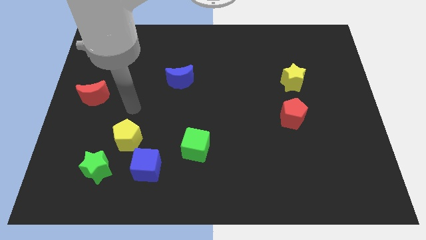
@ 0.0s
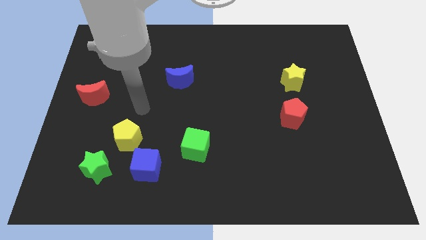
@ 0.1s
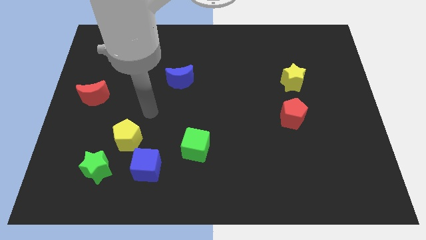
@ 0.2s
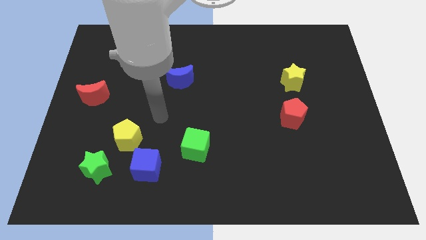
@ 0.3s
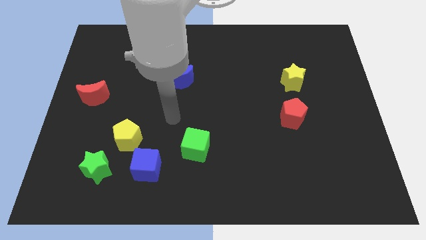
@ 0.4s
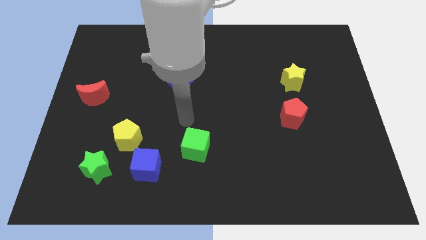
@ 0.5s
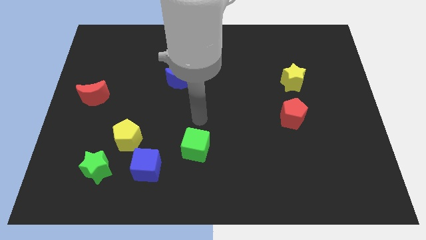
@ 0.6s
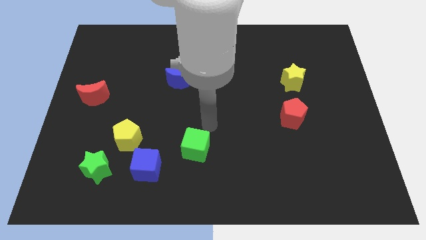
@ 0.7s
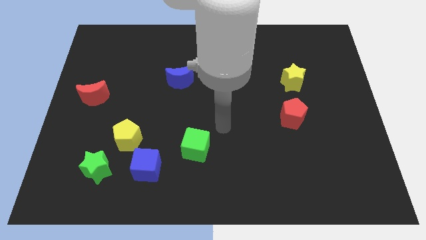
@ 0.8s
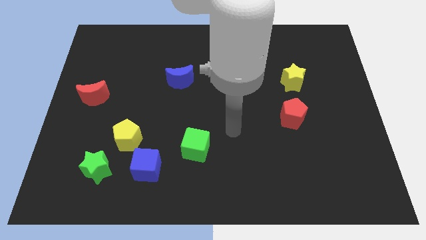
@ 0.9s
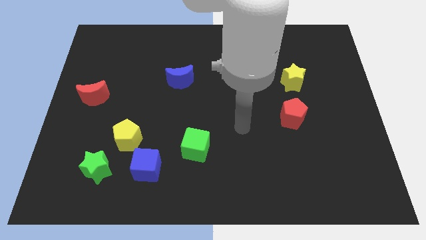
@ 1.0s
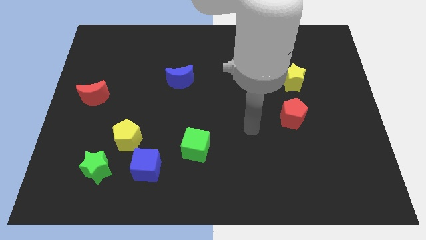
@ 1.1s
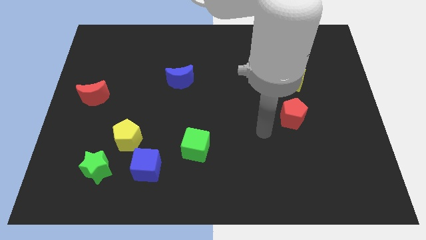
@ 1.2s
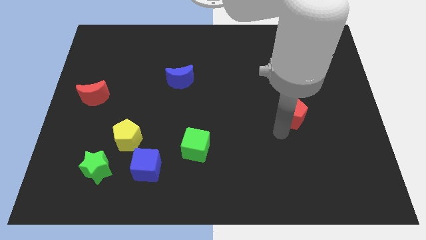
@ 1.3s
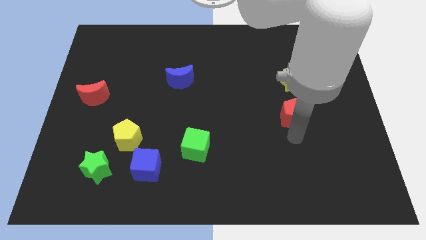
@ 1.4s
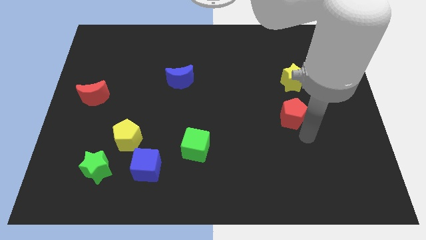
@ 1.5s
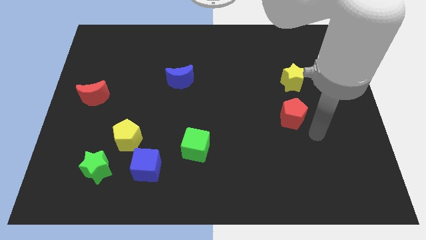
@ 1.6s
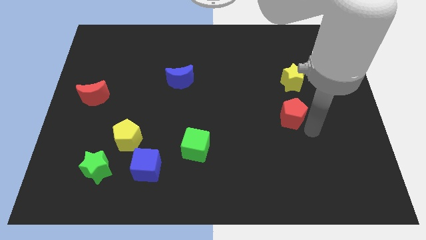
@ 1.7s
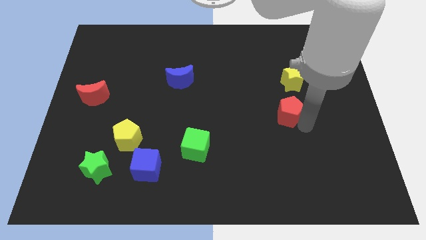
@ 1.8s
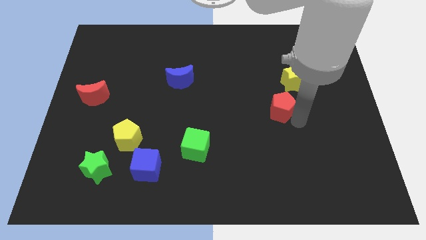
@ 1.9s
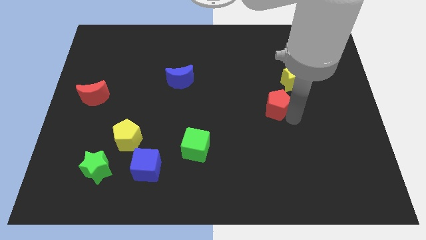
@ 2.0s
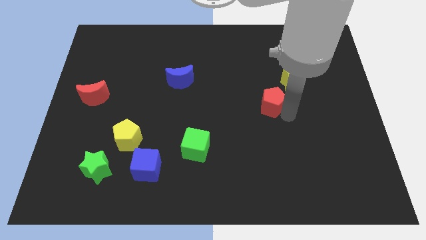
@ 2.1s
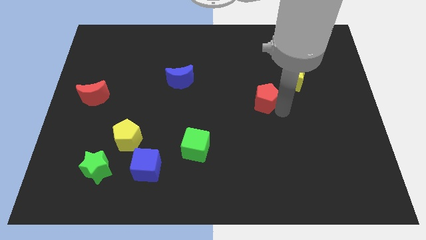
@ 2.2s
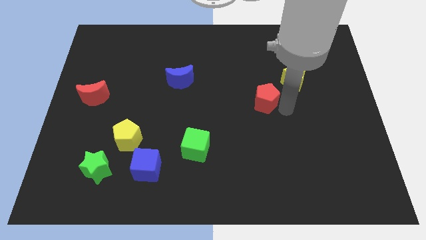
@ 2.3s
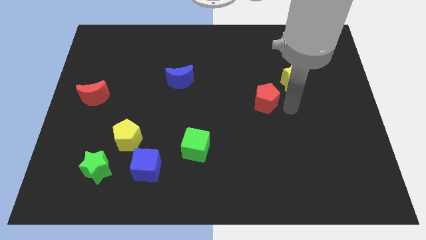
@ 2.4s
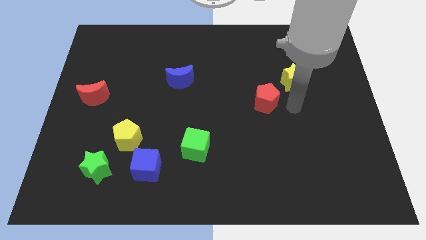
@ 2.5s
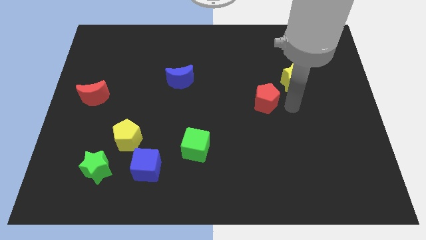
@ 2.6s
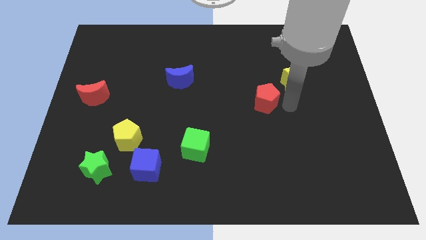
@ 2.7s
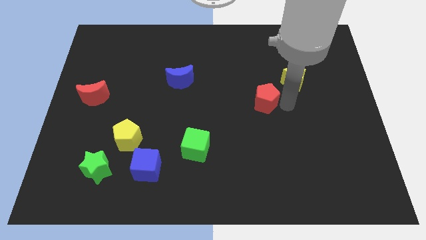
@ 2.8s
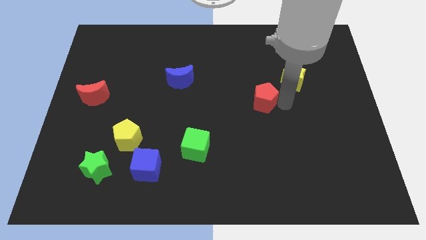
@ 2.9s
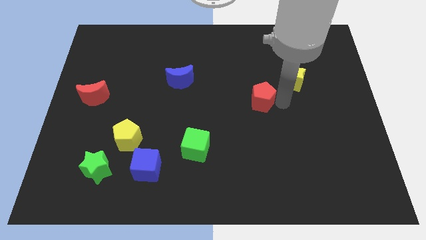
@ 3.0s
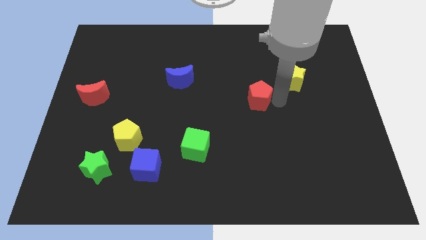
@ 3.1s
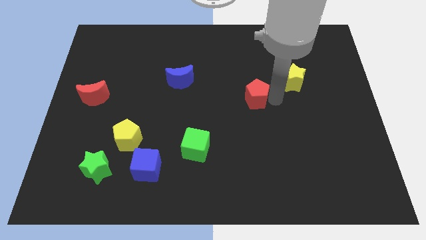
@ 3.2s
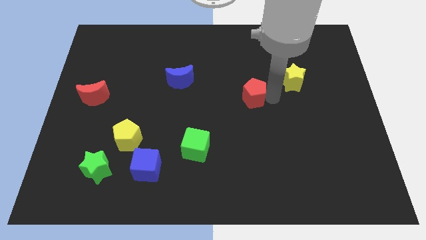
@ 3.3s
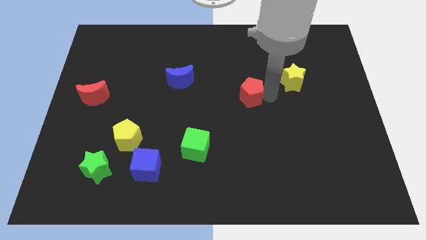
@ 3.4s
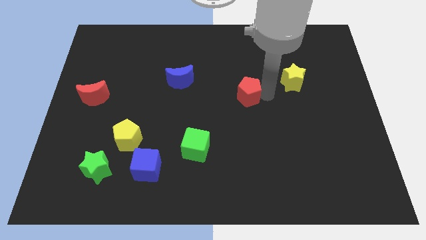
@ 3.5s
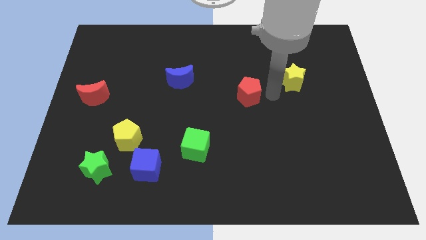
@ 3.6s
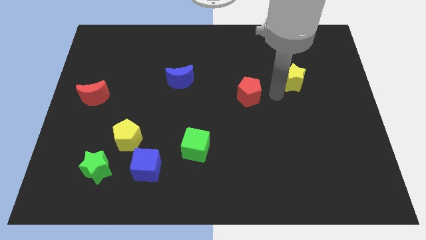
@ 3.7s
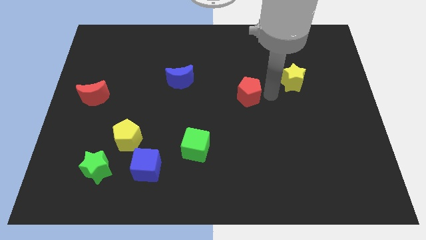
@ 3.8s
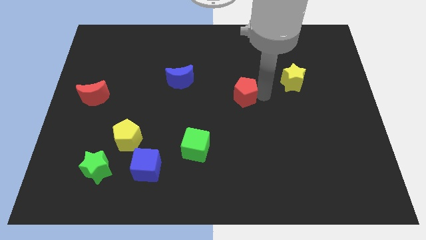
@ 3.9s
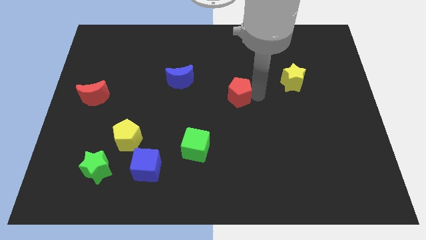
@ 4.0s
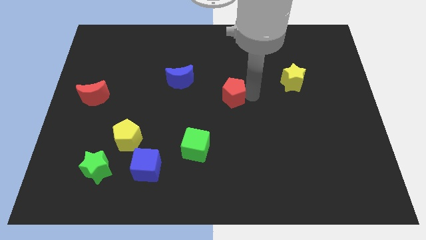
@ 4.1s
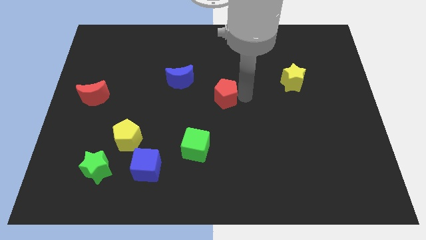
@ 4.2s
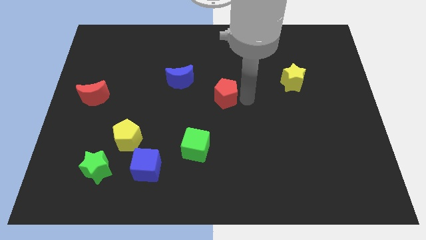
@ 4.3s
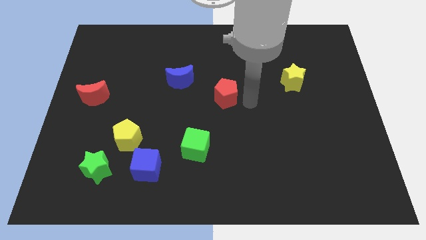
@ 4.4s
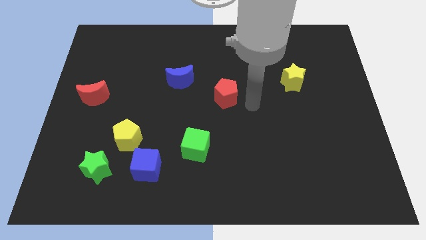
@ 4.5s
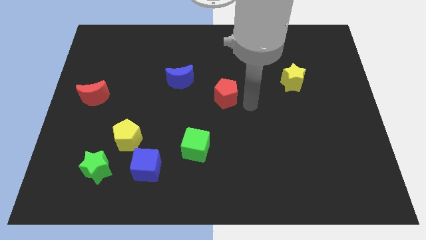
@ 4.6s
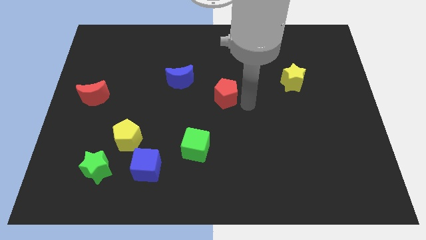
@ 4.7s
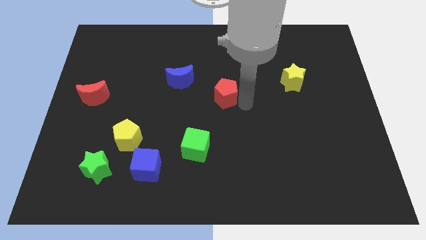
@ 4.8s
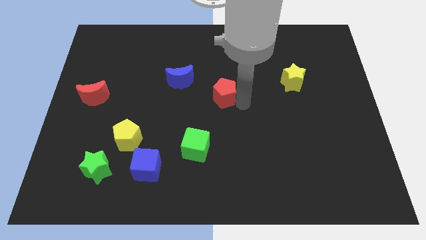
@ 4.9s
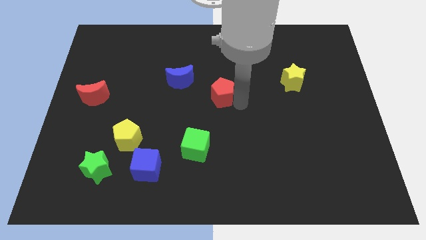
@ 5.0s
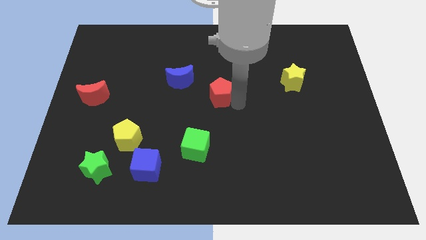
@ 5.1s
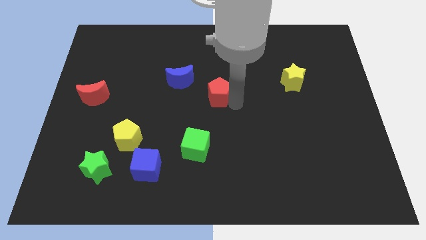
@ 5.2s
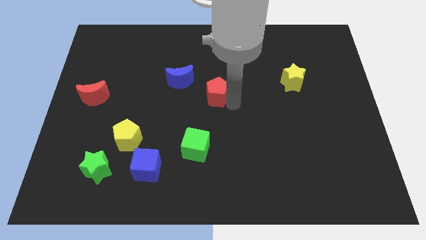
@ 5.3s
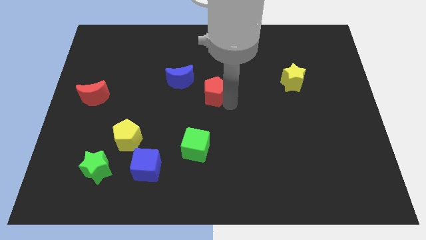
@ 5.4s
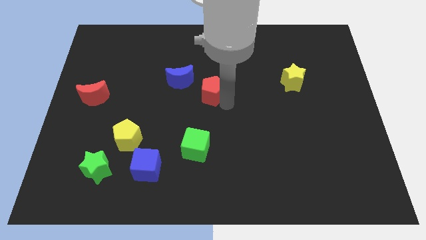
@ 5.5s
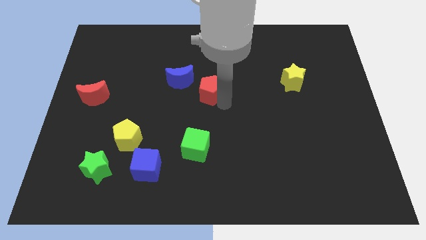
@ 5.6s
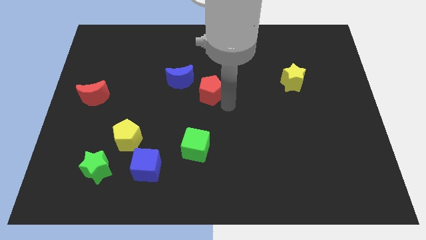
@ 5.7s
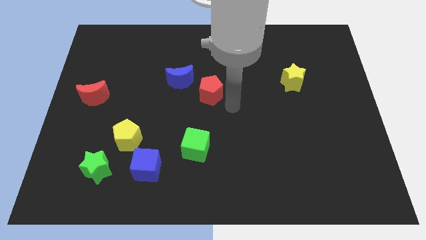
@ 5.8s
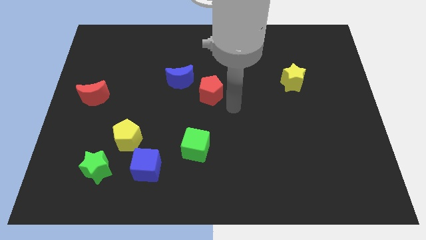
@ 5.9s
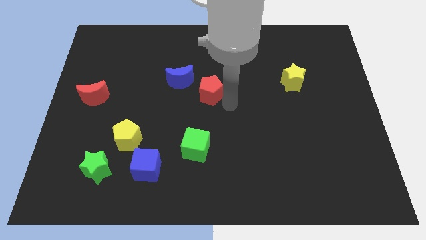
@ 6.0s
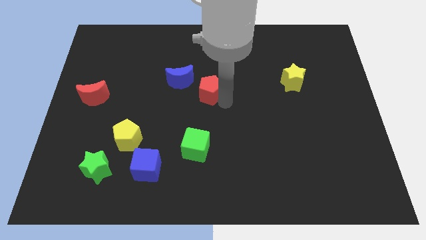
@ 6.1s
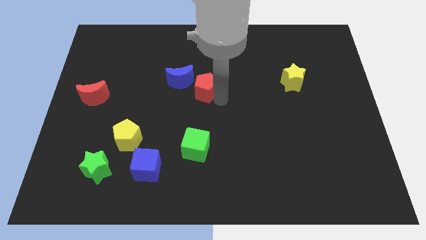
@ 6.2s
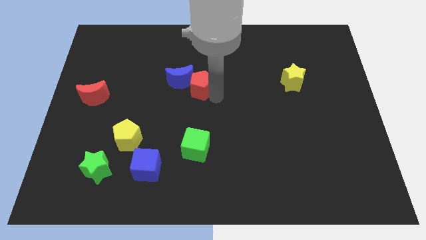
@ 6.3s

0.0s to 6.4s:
slide the red pentagon to the blue moon
